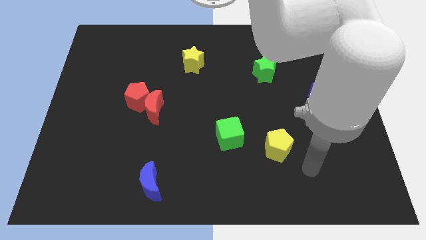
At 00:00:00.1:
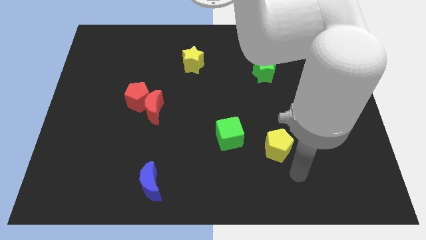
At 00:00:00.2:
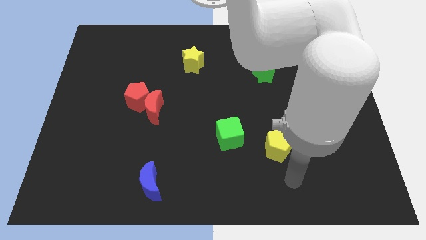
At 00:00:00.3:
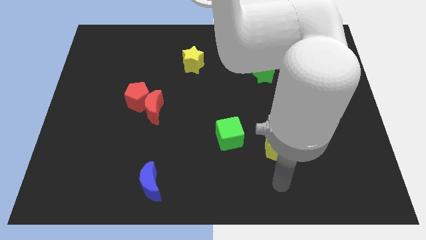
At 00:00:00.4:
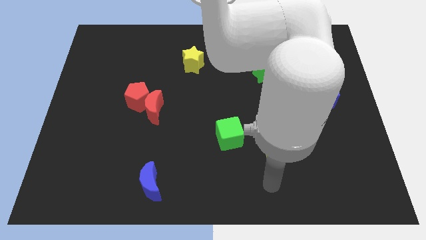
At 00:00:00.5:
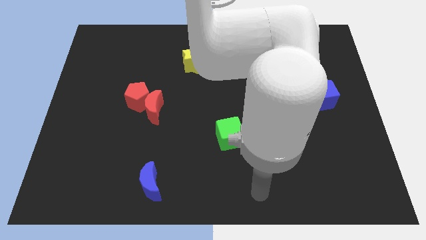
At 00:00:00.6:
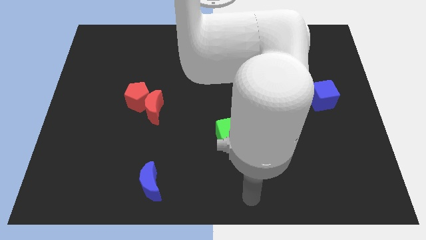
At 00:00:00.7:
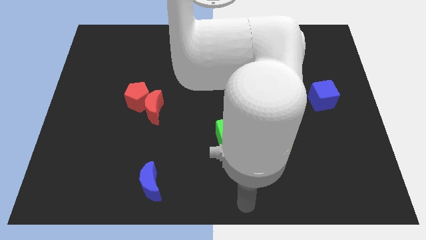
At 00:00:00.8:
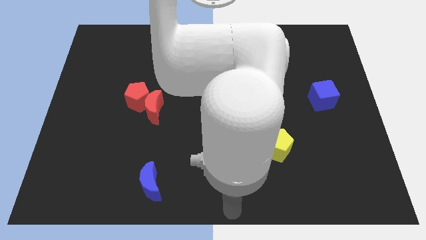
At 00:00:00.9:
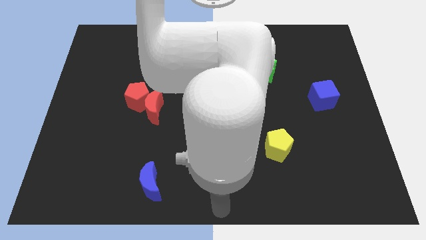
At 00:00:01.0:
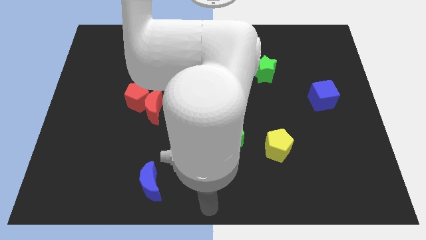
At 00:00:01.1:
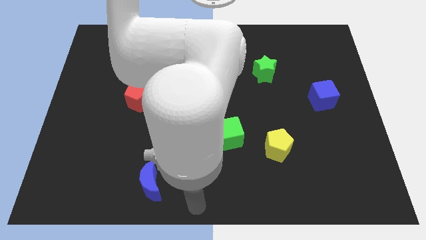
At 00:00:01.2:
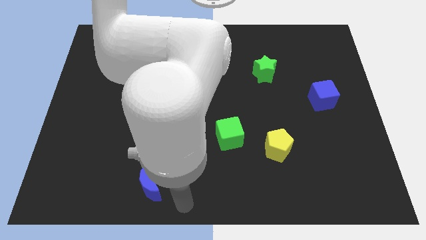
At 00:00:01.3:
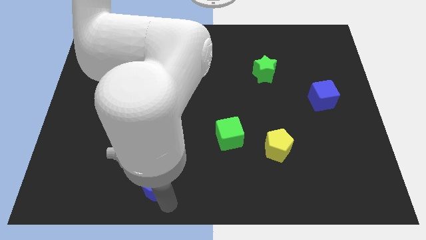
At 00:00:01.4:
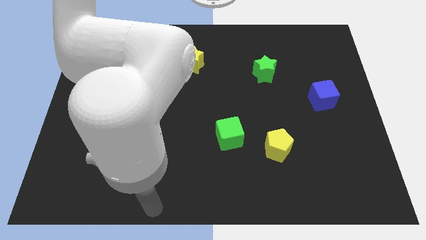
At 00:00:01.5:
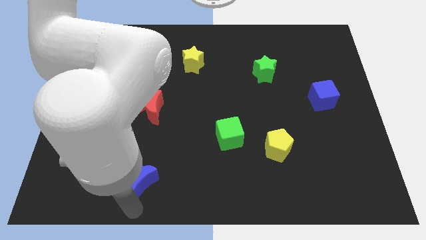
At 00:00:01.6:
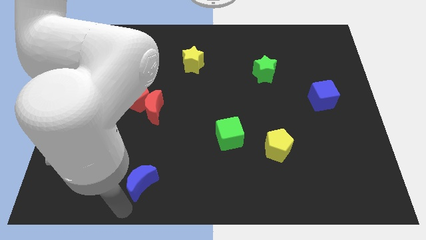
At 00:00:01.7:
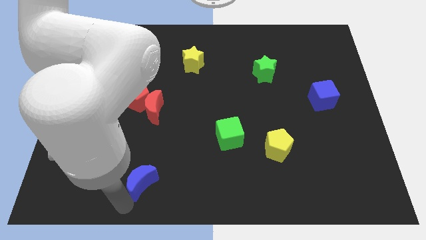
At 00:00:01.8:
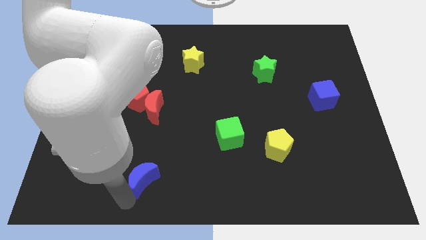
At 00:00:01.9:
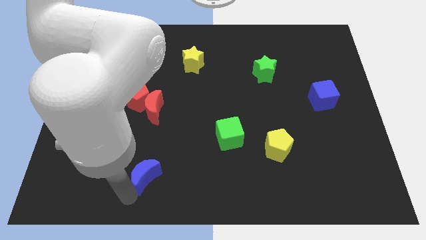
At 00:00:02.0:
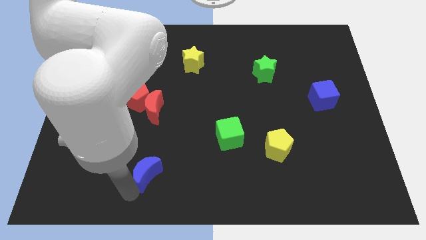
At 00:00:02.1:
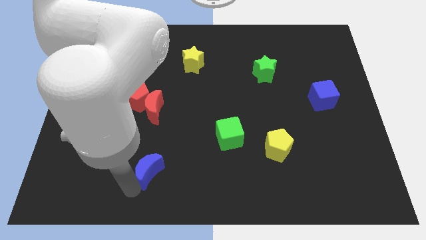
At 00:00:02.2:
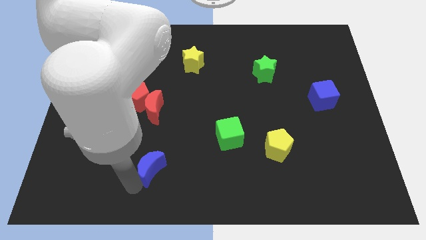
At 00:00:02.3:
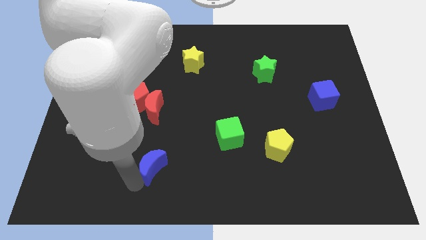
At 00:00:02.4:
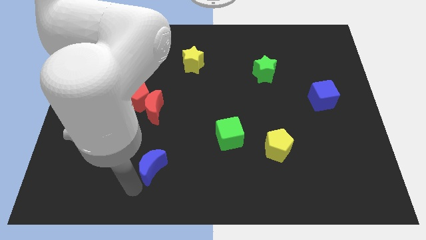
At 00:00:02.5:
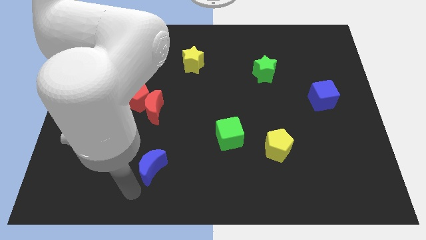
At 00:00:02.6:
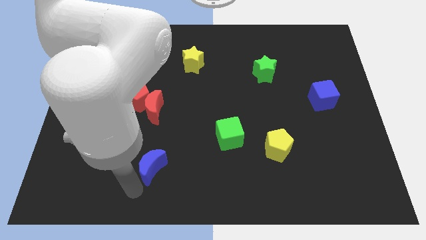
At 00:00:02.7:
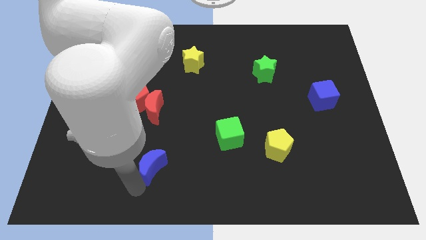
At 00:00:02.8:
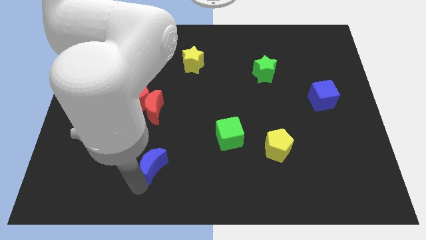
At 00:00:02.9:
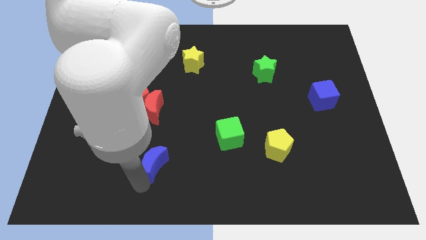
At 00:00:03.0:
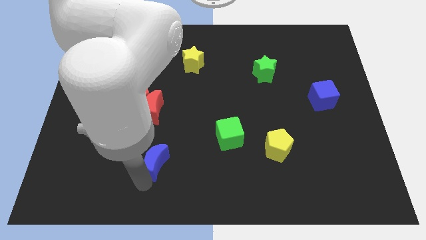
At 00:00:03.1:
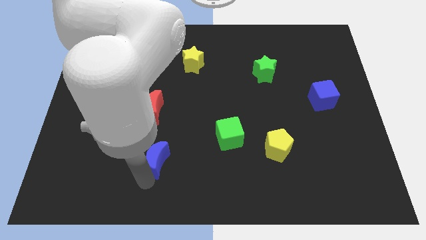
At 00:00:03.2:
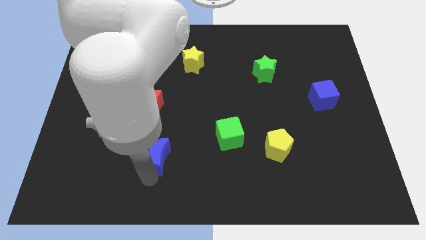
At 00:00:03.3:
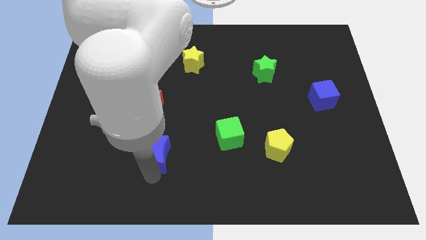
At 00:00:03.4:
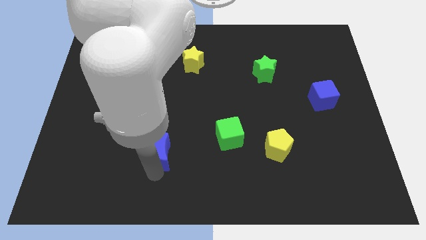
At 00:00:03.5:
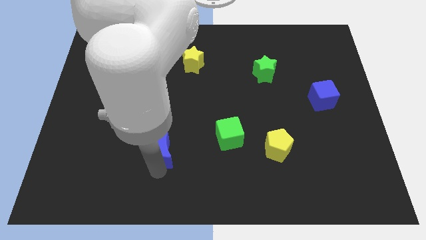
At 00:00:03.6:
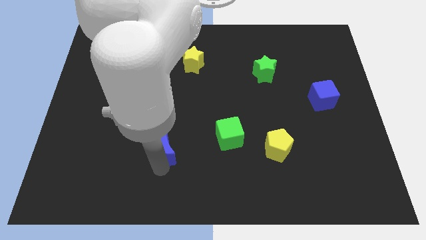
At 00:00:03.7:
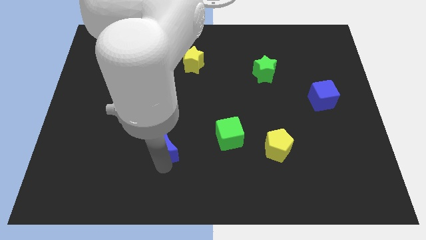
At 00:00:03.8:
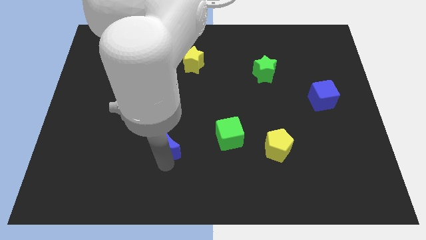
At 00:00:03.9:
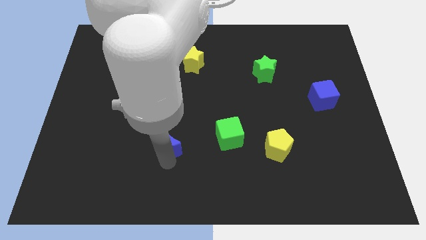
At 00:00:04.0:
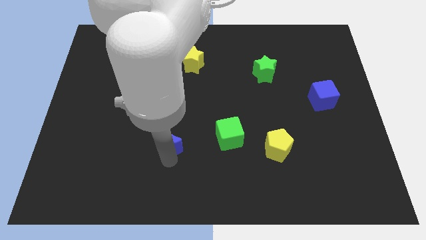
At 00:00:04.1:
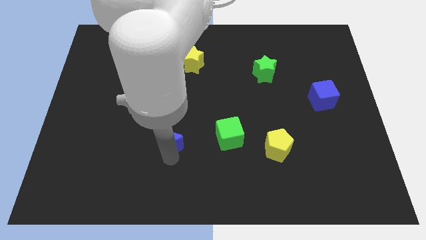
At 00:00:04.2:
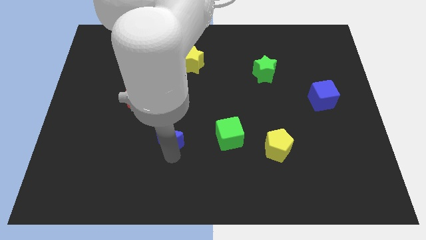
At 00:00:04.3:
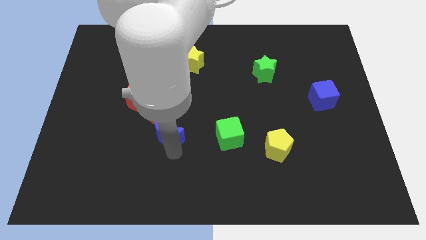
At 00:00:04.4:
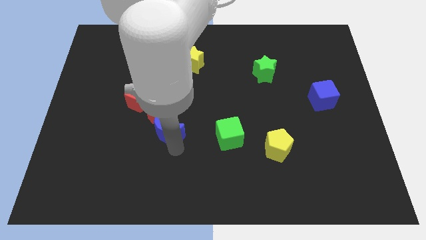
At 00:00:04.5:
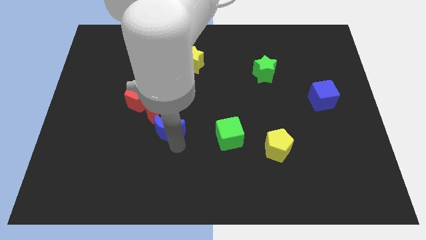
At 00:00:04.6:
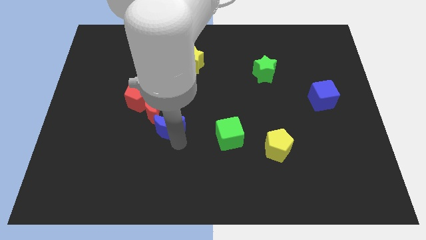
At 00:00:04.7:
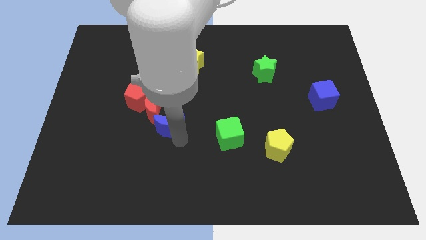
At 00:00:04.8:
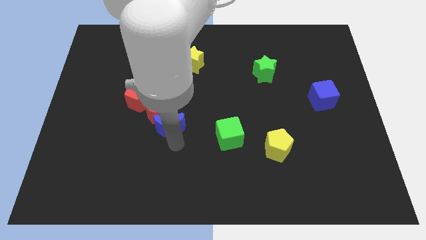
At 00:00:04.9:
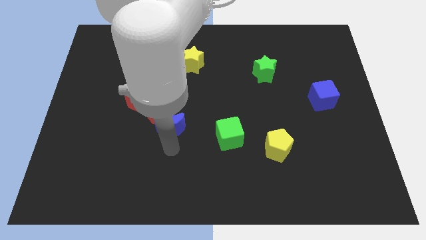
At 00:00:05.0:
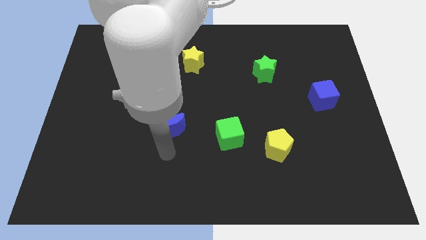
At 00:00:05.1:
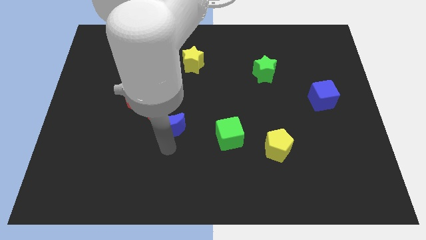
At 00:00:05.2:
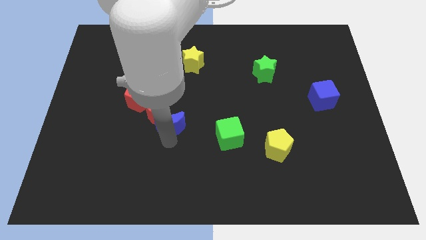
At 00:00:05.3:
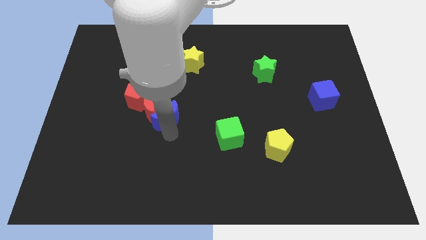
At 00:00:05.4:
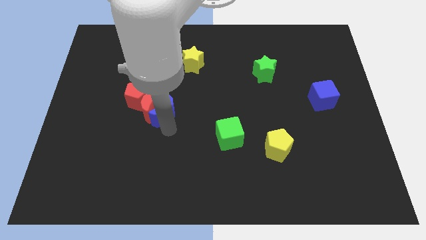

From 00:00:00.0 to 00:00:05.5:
put the blue moon to the top right side of the red moon

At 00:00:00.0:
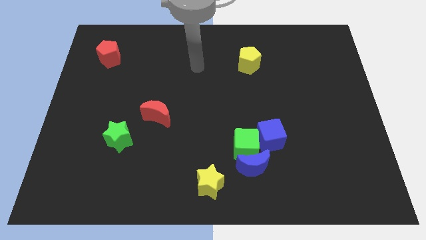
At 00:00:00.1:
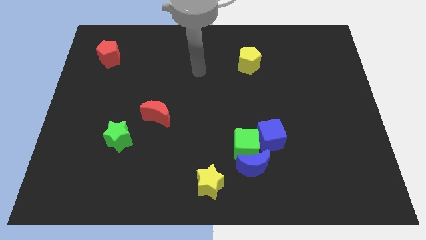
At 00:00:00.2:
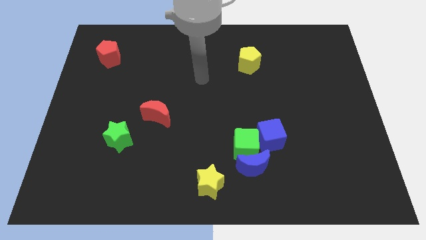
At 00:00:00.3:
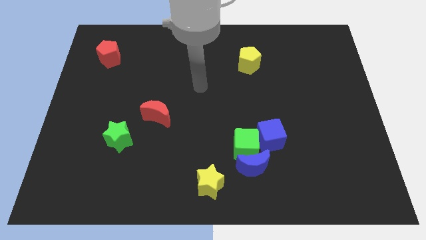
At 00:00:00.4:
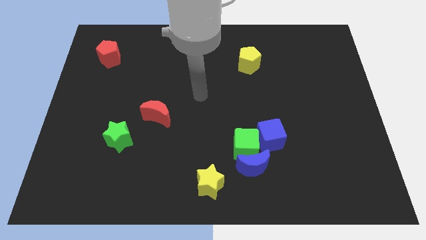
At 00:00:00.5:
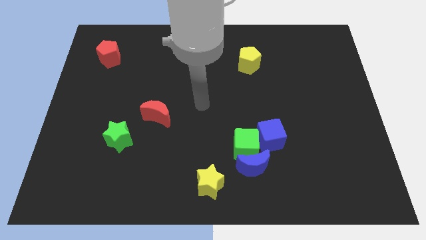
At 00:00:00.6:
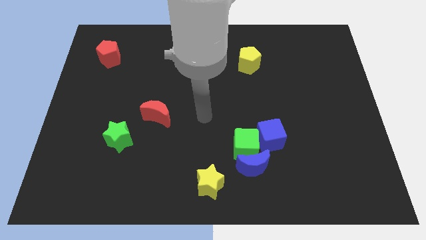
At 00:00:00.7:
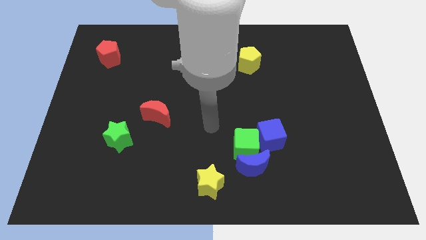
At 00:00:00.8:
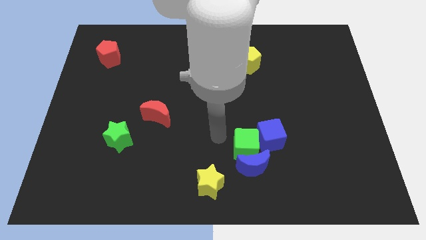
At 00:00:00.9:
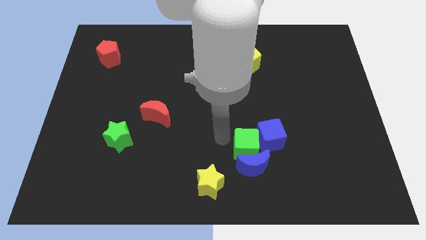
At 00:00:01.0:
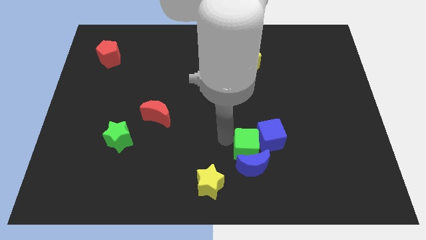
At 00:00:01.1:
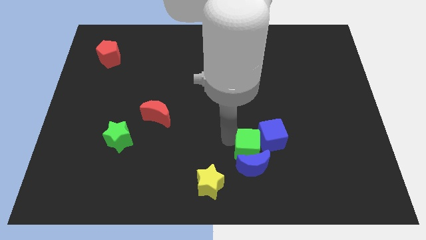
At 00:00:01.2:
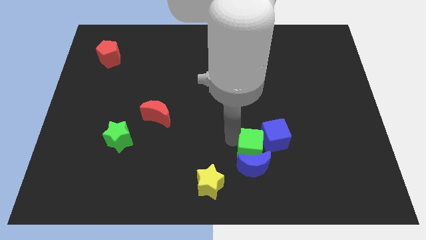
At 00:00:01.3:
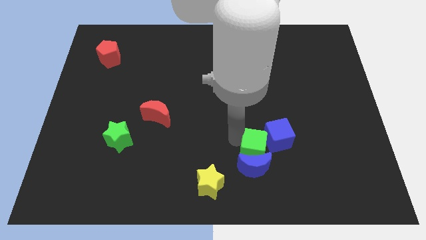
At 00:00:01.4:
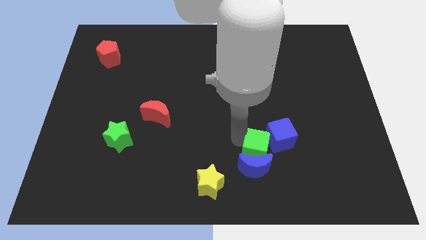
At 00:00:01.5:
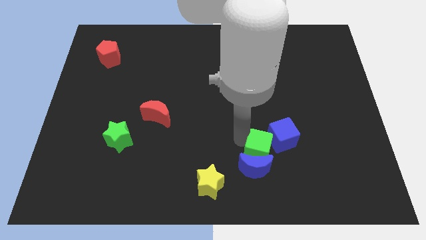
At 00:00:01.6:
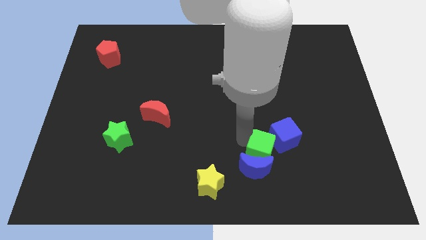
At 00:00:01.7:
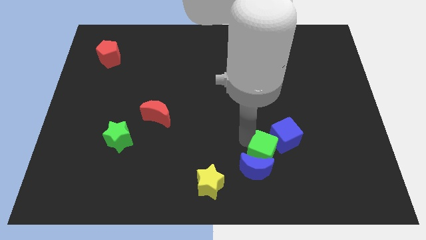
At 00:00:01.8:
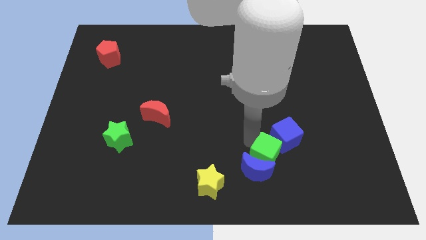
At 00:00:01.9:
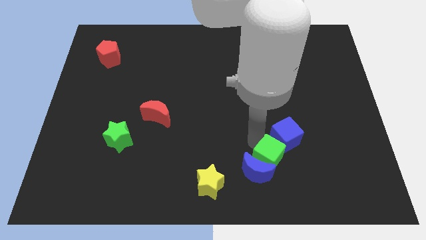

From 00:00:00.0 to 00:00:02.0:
slide the green cube to the right side of the blue moon
